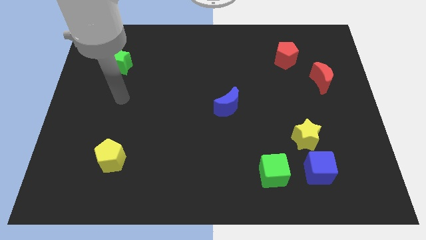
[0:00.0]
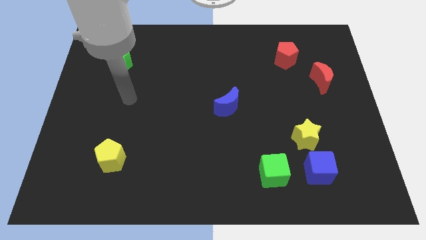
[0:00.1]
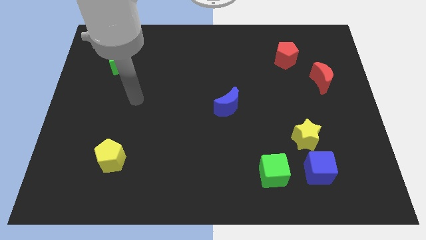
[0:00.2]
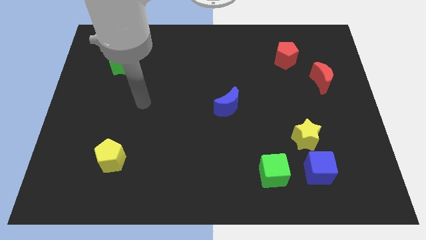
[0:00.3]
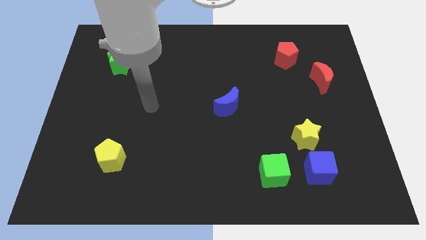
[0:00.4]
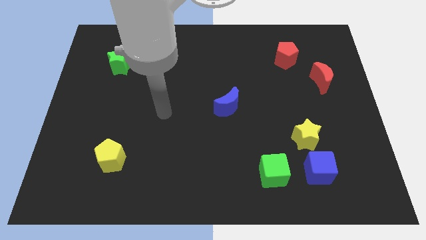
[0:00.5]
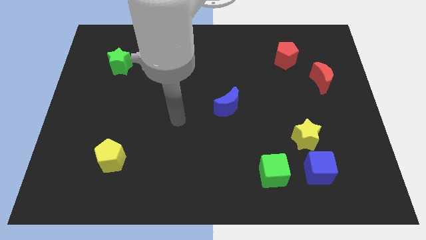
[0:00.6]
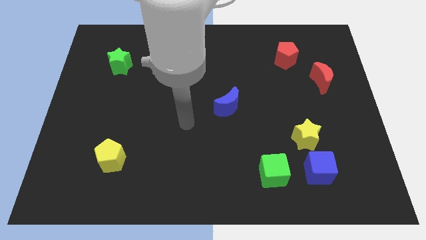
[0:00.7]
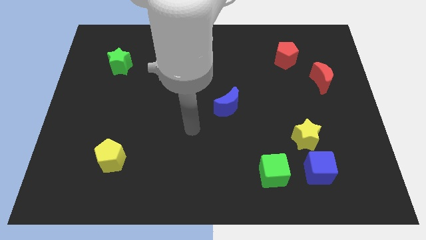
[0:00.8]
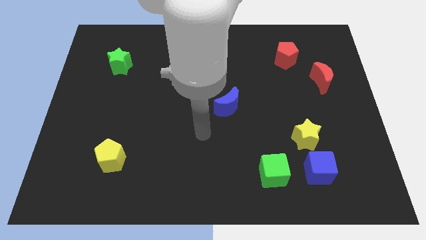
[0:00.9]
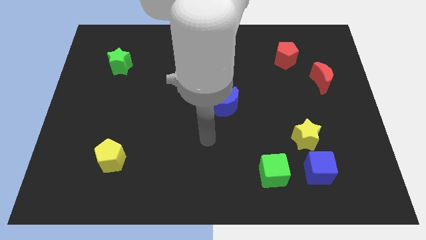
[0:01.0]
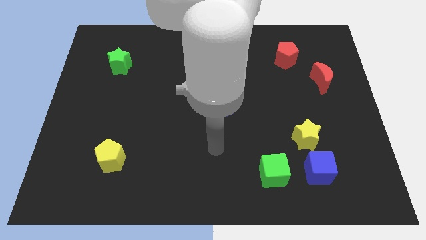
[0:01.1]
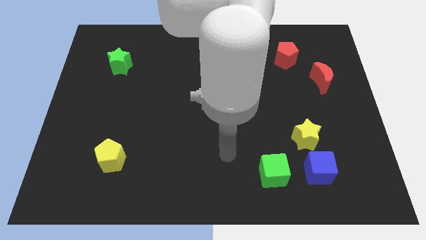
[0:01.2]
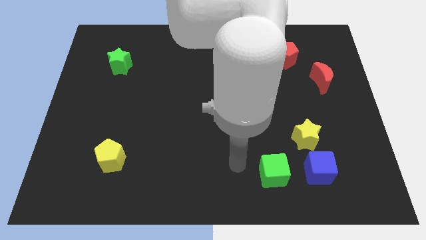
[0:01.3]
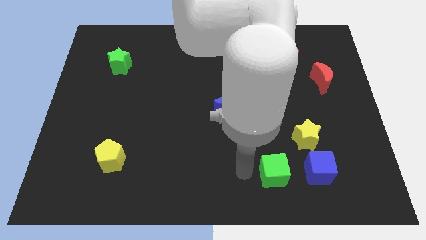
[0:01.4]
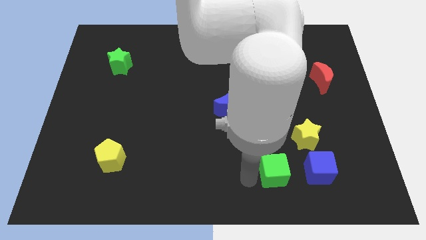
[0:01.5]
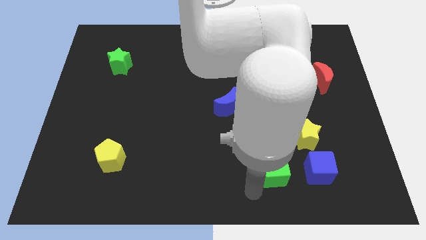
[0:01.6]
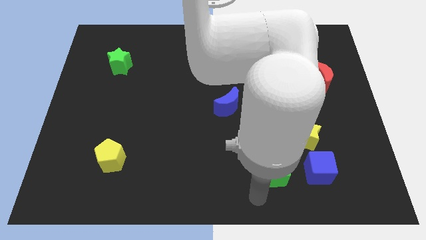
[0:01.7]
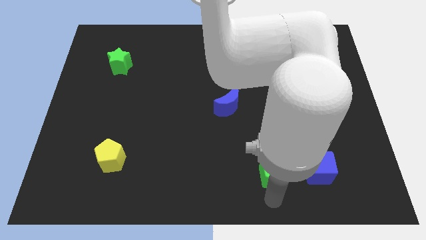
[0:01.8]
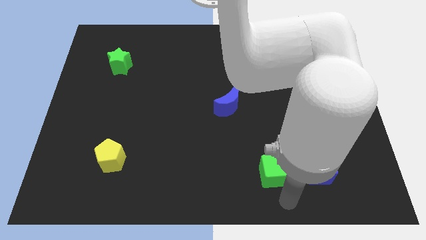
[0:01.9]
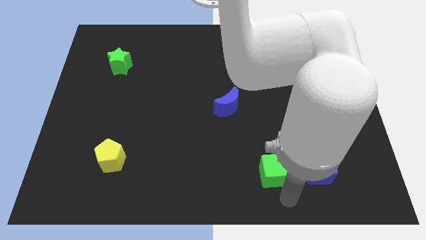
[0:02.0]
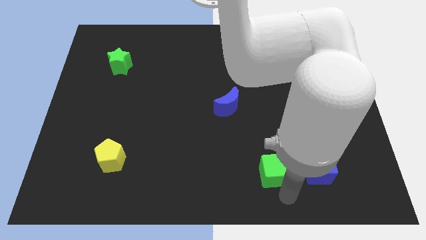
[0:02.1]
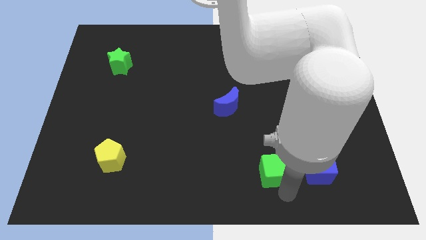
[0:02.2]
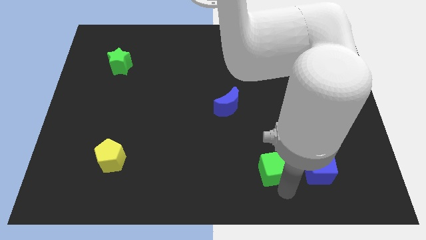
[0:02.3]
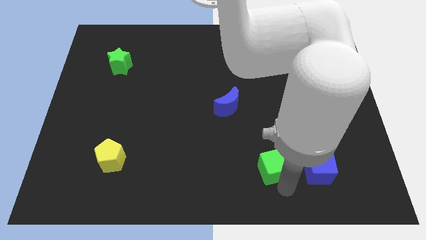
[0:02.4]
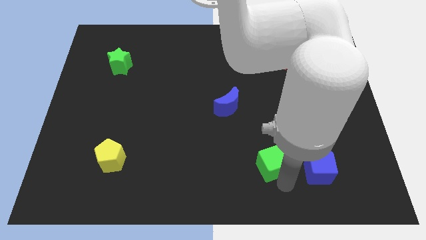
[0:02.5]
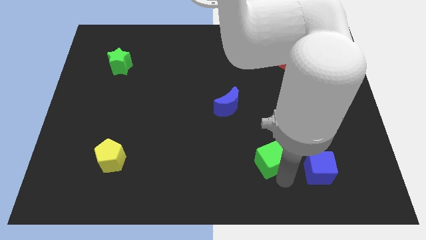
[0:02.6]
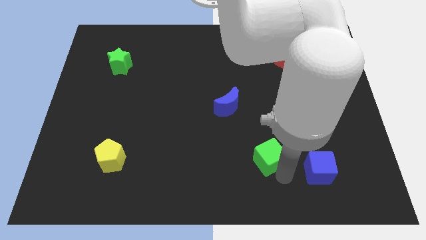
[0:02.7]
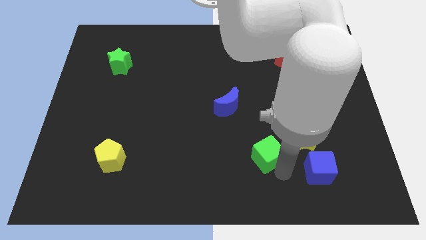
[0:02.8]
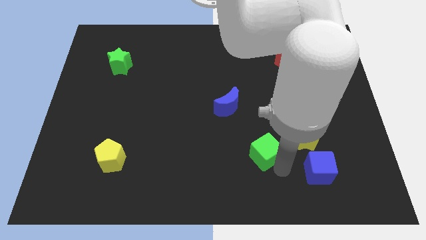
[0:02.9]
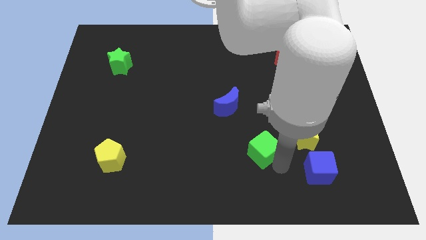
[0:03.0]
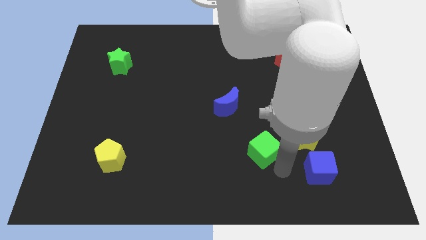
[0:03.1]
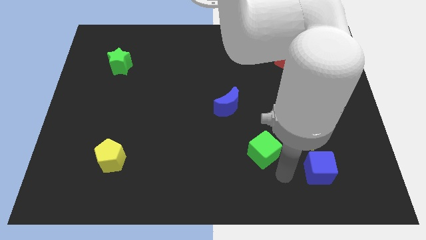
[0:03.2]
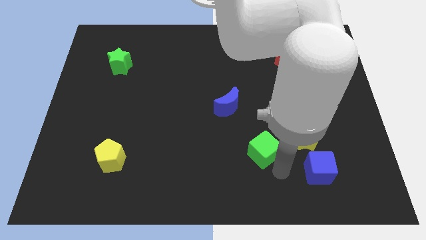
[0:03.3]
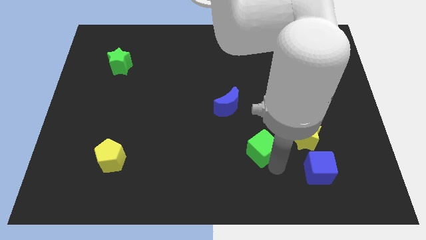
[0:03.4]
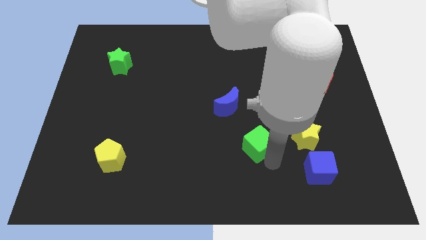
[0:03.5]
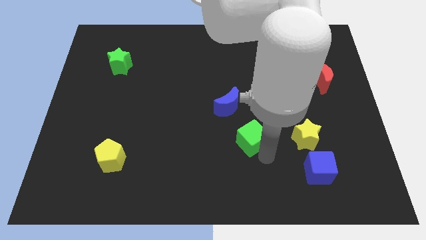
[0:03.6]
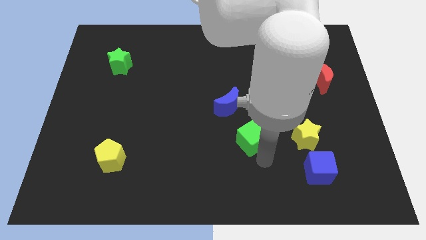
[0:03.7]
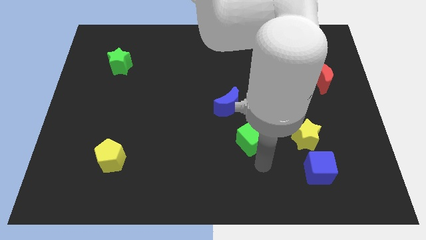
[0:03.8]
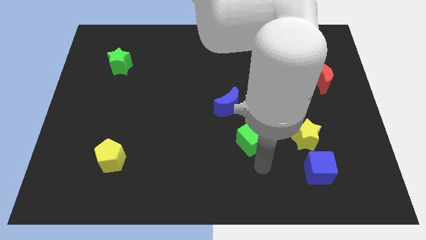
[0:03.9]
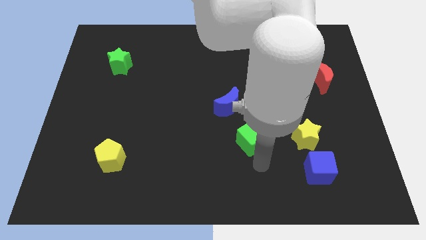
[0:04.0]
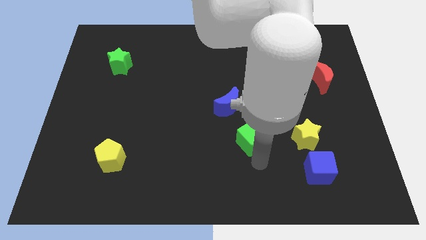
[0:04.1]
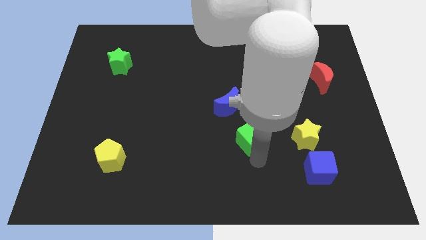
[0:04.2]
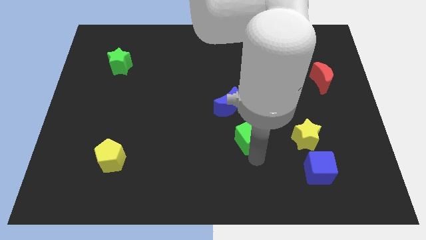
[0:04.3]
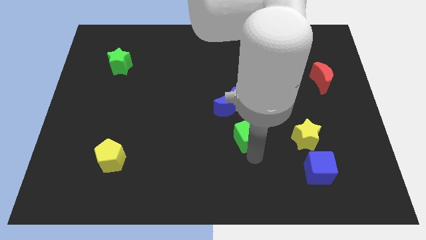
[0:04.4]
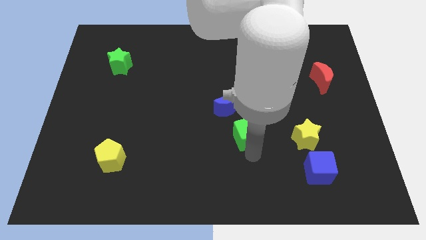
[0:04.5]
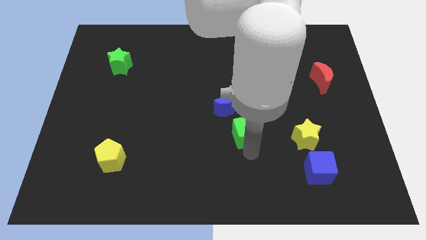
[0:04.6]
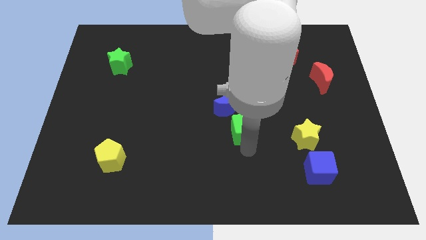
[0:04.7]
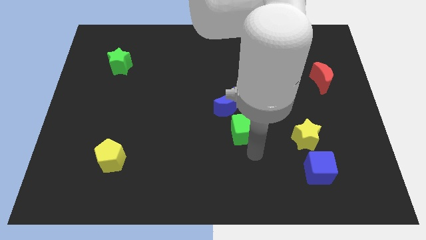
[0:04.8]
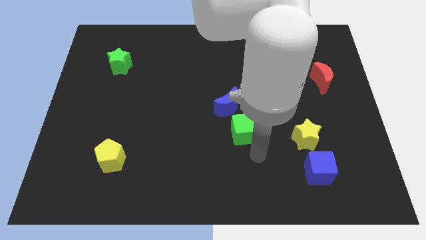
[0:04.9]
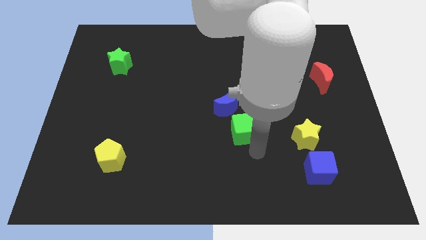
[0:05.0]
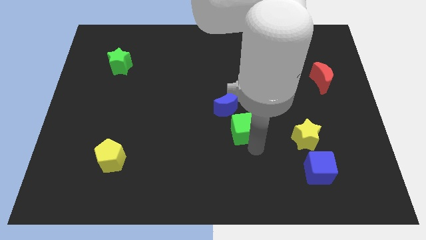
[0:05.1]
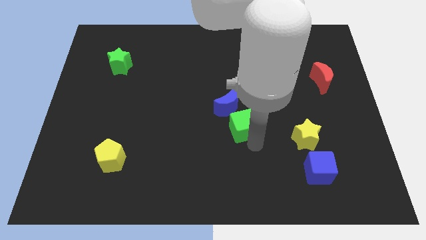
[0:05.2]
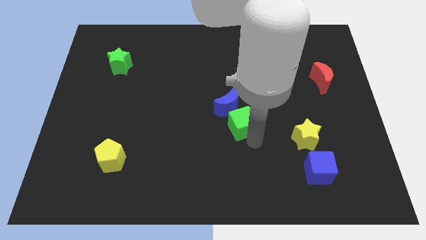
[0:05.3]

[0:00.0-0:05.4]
move the green cube to the blue moon
